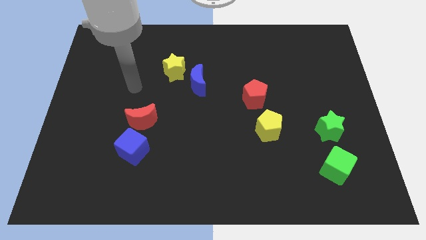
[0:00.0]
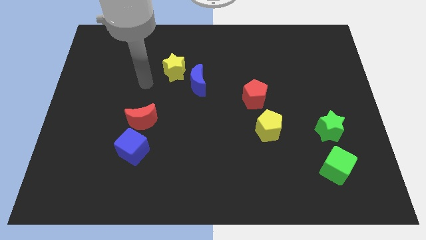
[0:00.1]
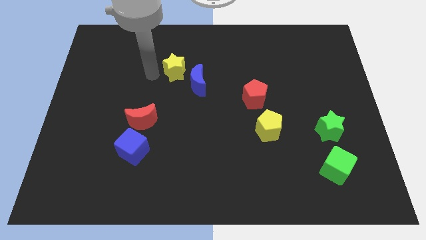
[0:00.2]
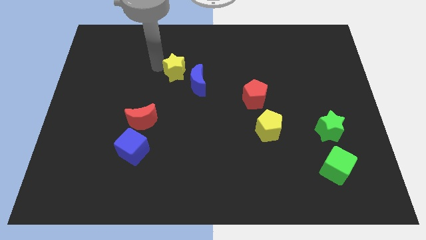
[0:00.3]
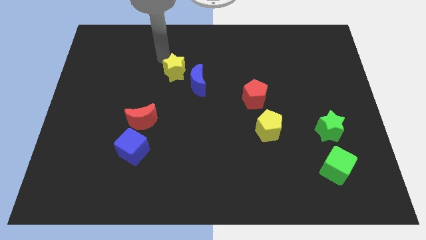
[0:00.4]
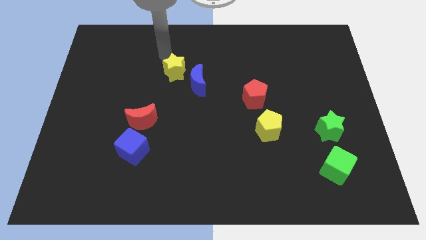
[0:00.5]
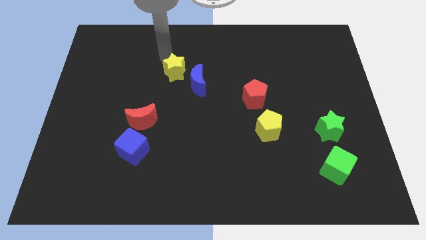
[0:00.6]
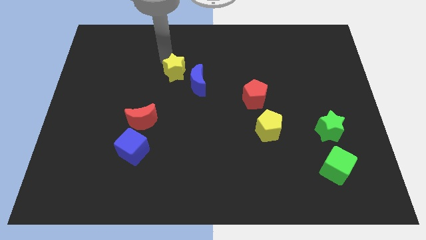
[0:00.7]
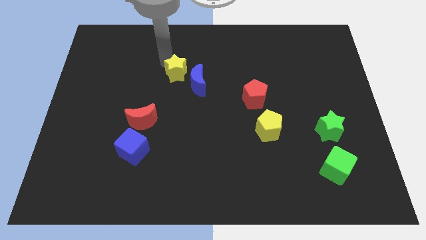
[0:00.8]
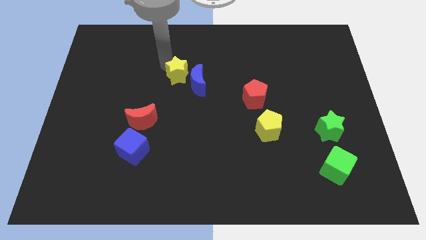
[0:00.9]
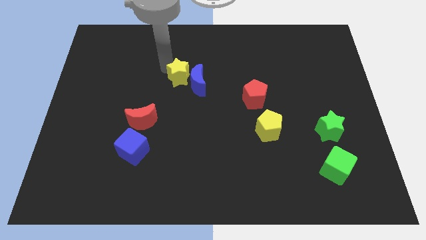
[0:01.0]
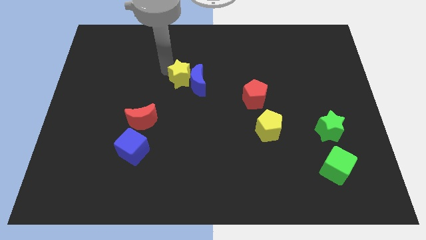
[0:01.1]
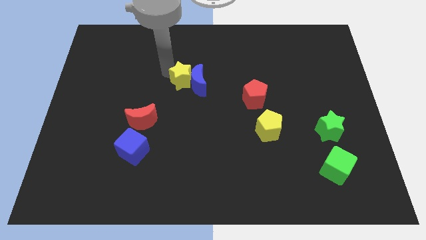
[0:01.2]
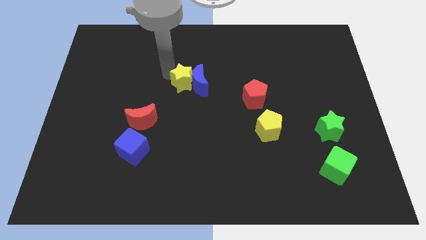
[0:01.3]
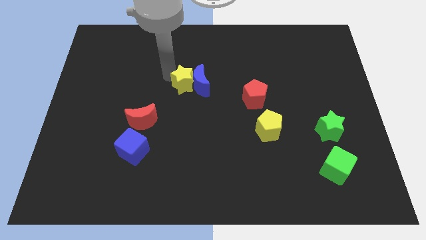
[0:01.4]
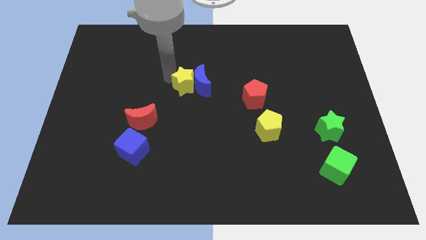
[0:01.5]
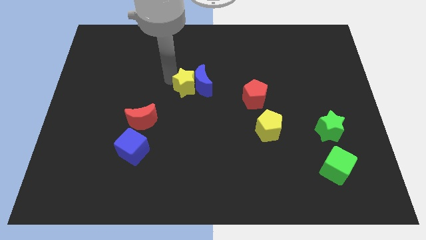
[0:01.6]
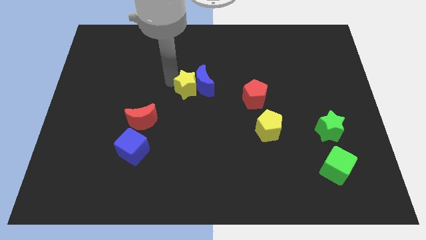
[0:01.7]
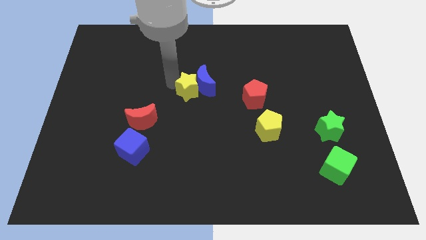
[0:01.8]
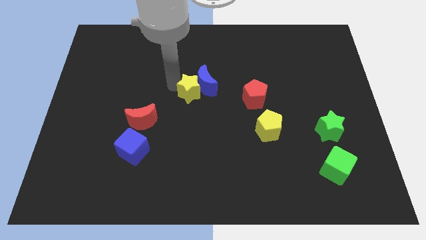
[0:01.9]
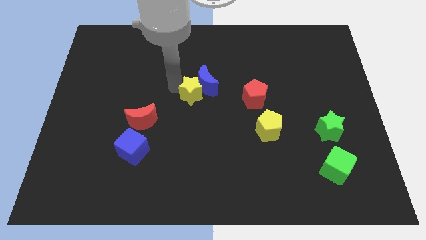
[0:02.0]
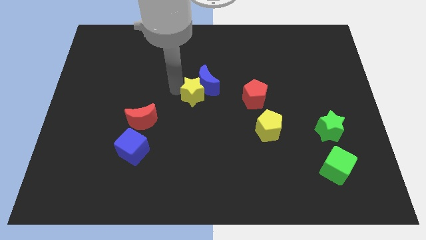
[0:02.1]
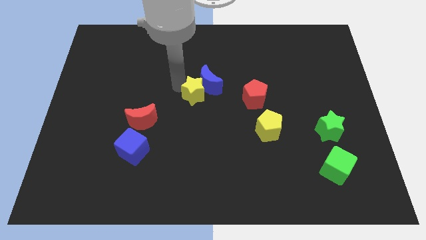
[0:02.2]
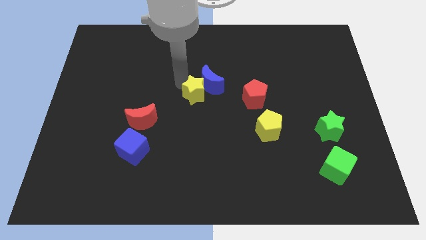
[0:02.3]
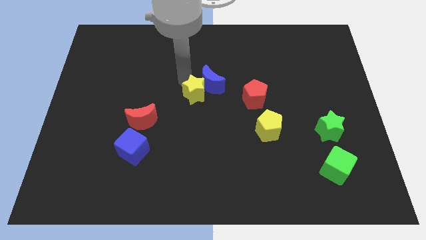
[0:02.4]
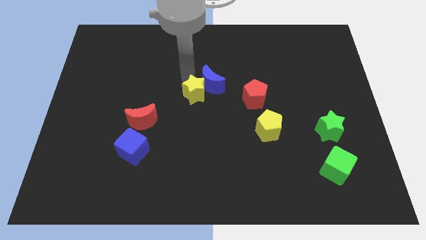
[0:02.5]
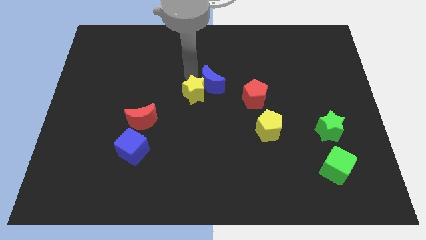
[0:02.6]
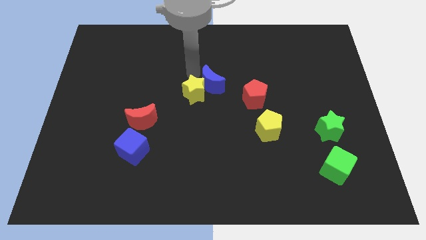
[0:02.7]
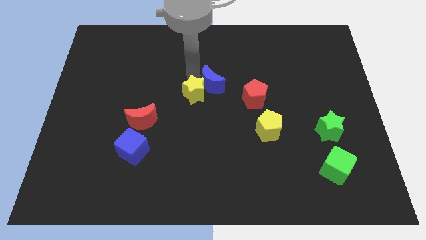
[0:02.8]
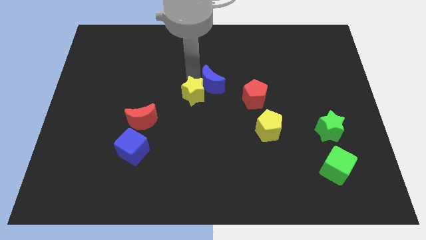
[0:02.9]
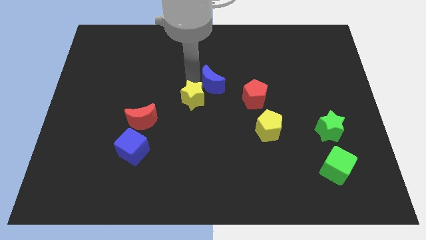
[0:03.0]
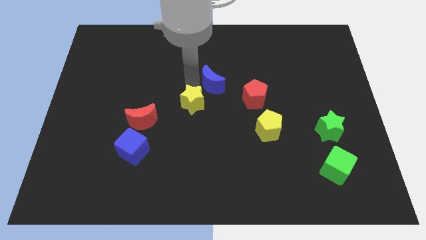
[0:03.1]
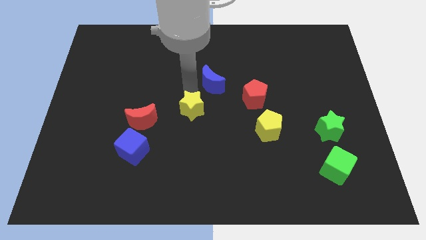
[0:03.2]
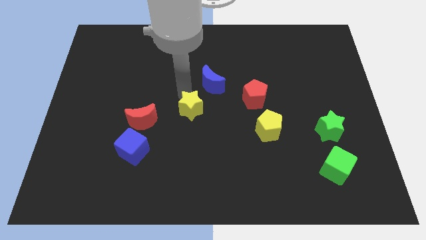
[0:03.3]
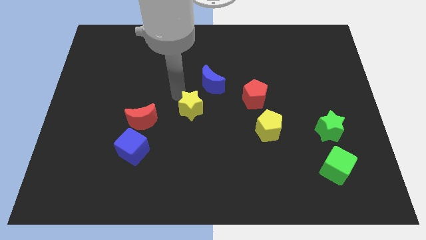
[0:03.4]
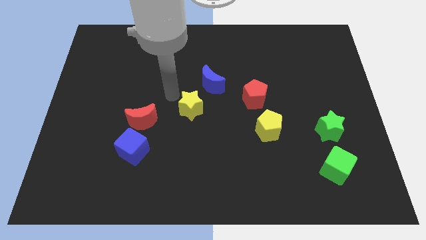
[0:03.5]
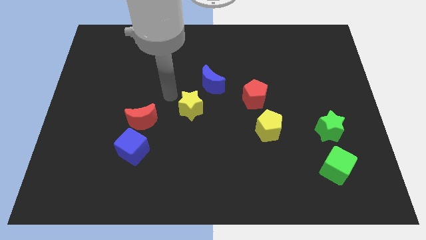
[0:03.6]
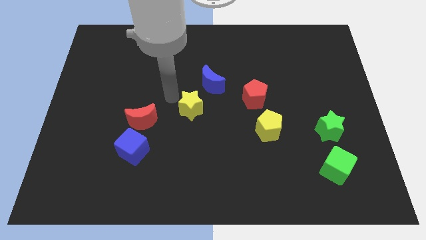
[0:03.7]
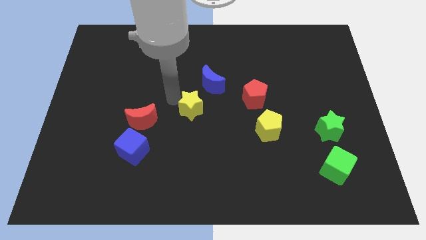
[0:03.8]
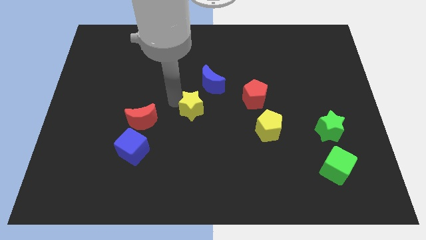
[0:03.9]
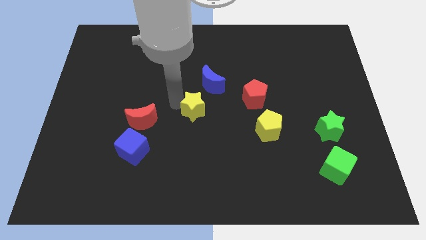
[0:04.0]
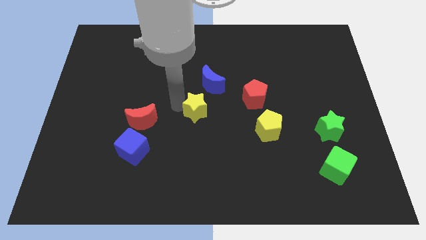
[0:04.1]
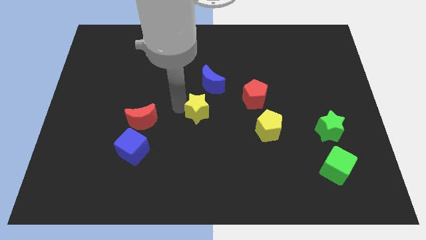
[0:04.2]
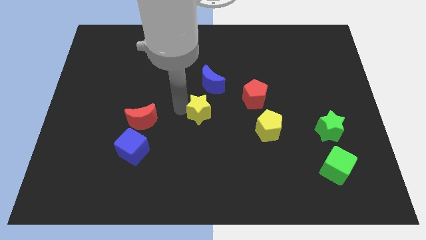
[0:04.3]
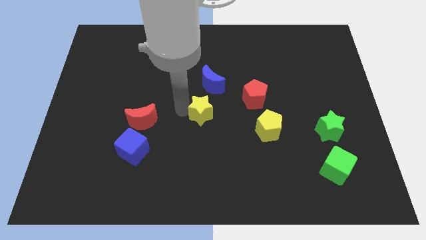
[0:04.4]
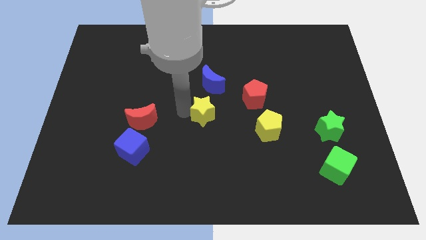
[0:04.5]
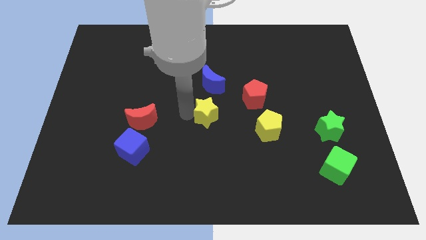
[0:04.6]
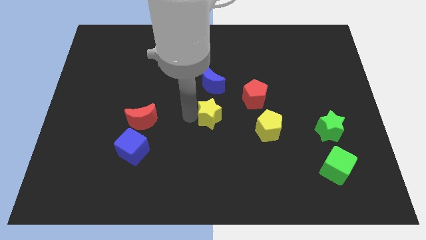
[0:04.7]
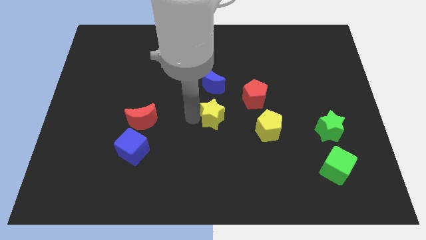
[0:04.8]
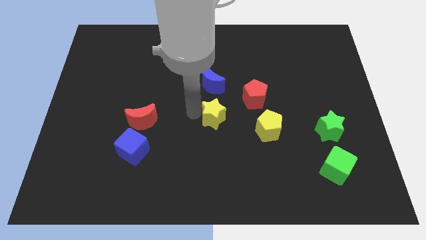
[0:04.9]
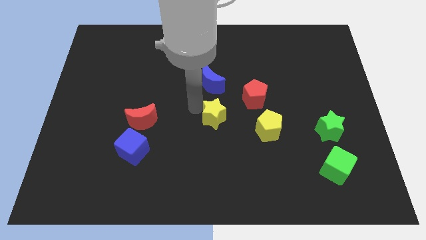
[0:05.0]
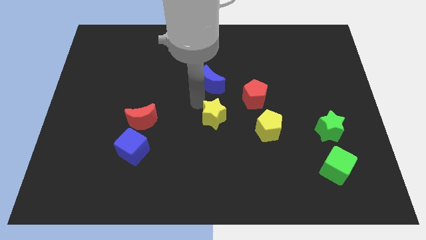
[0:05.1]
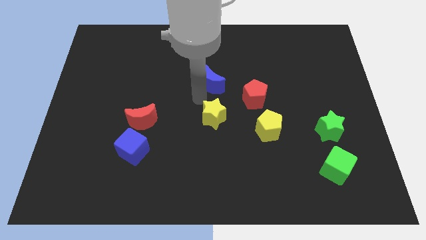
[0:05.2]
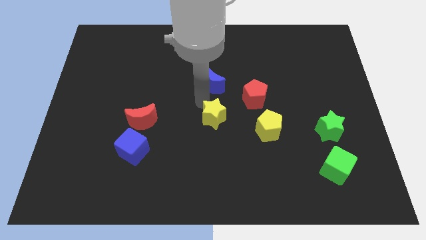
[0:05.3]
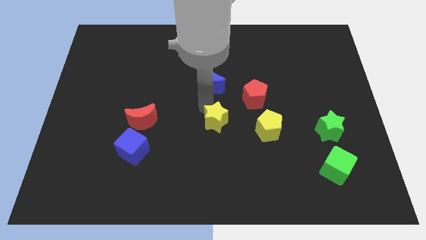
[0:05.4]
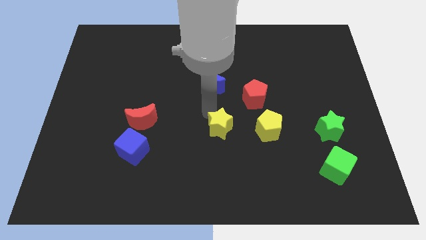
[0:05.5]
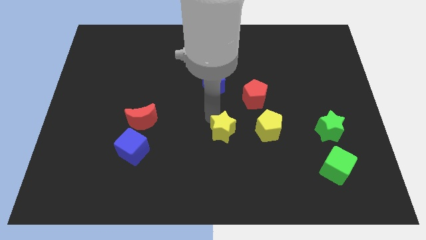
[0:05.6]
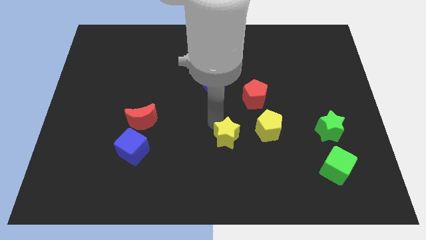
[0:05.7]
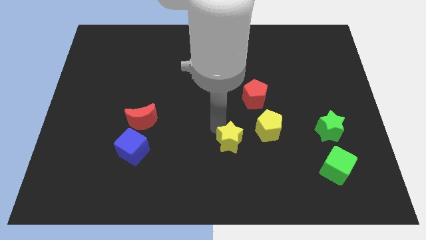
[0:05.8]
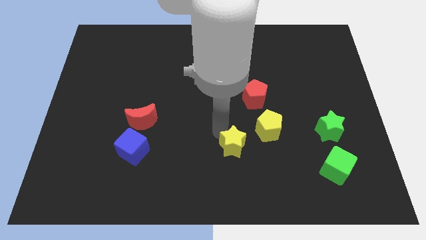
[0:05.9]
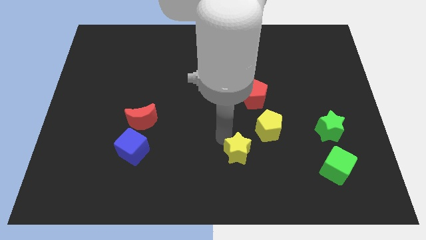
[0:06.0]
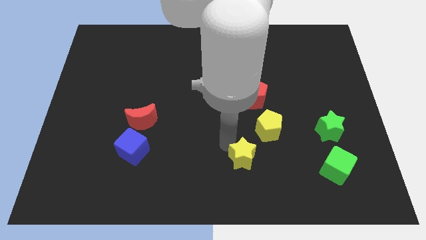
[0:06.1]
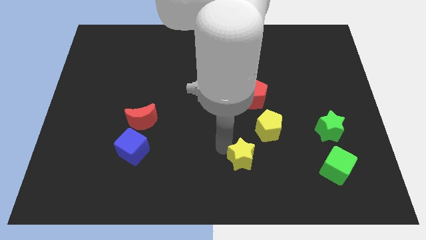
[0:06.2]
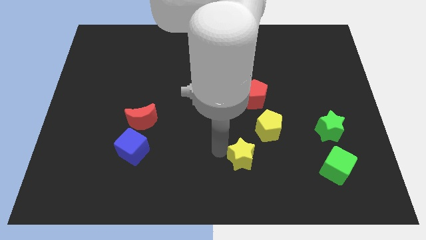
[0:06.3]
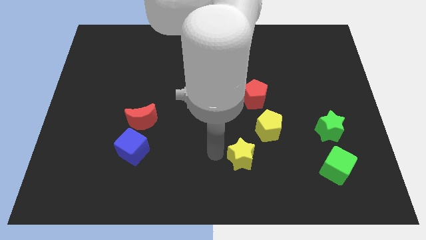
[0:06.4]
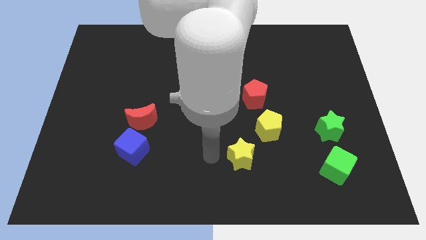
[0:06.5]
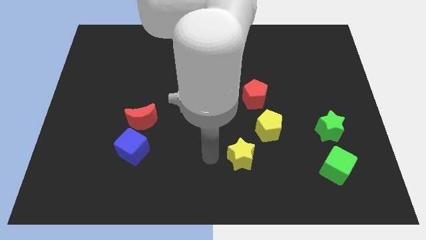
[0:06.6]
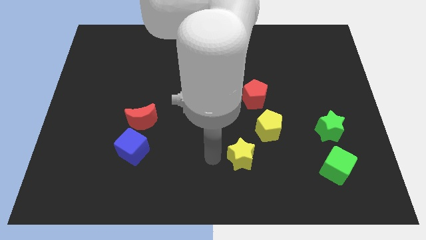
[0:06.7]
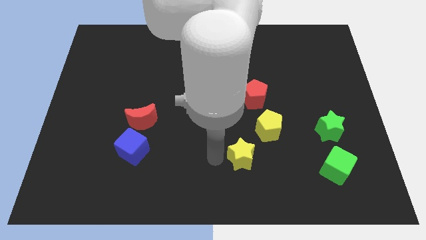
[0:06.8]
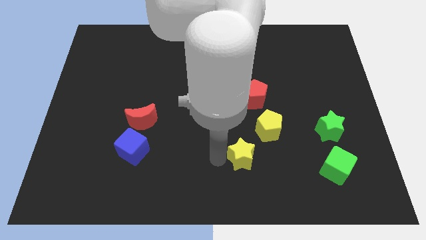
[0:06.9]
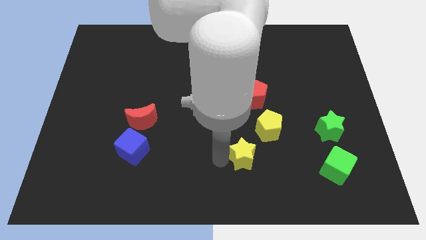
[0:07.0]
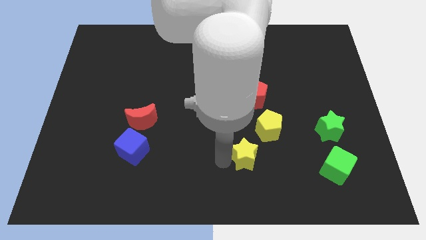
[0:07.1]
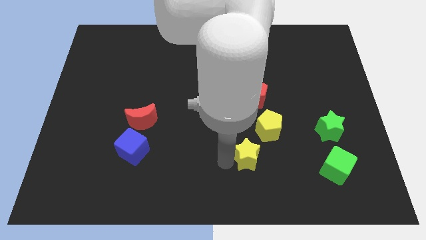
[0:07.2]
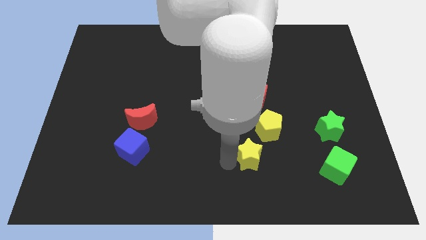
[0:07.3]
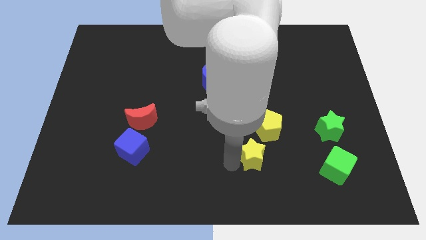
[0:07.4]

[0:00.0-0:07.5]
put the yellow star to the bottom of the yellow pentagon
